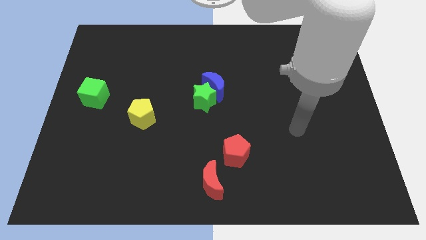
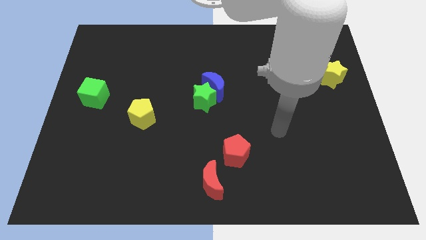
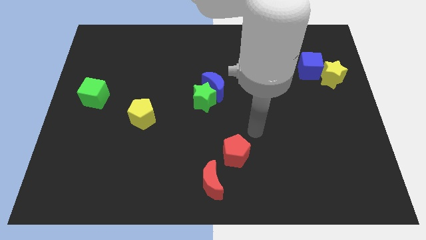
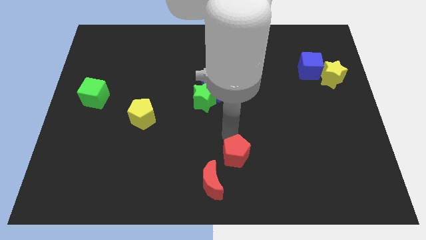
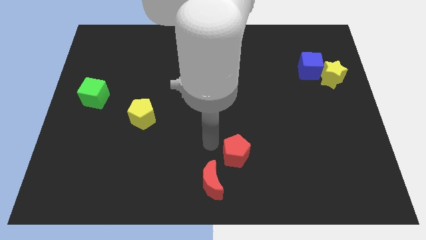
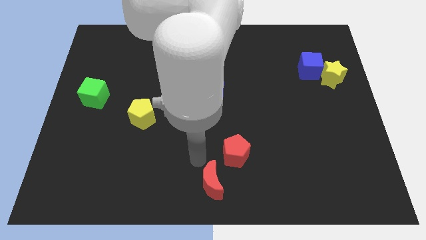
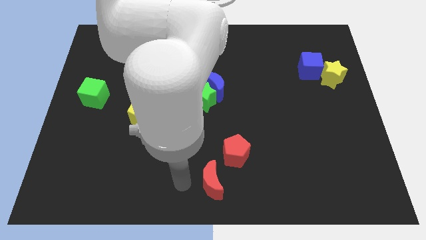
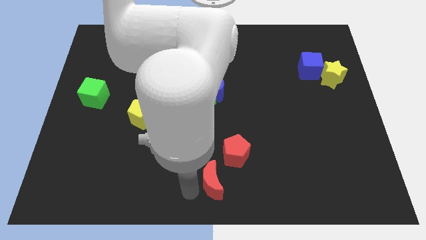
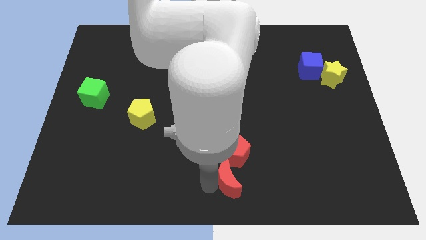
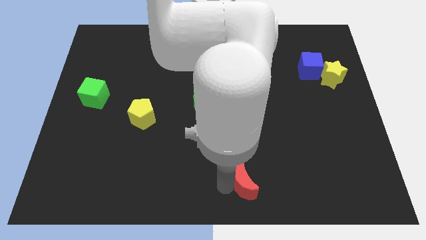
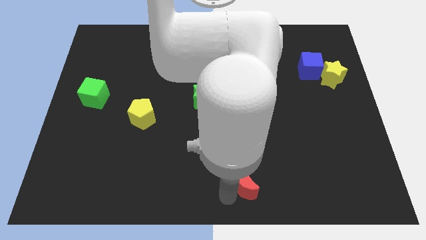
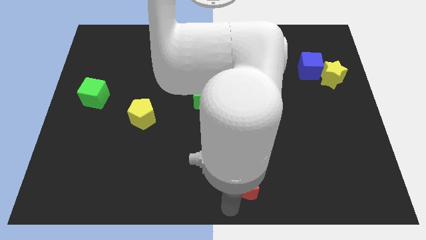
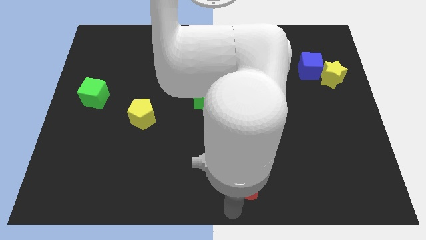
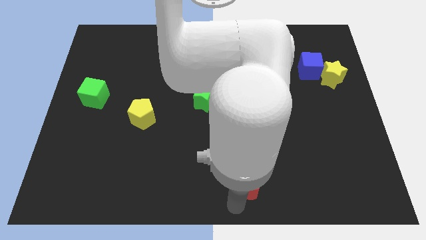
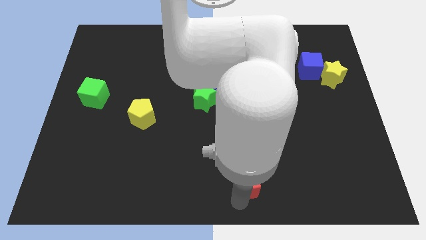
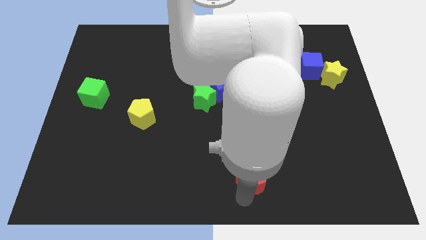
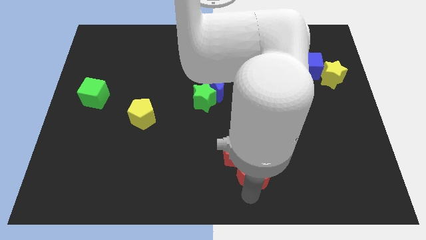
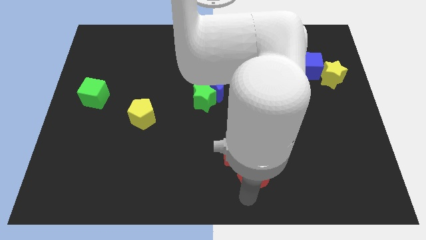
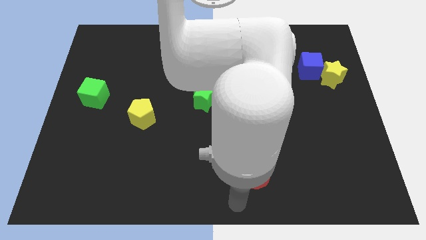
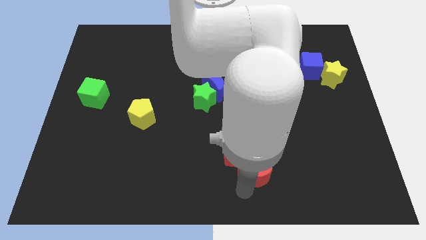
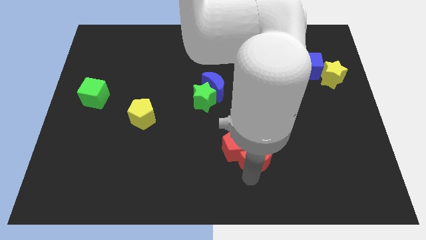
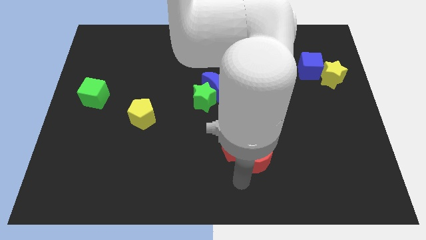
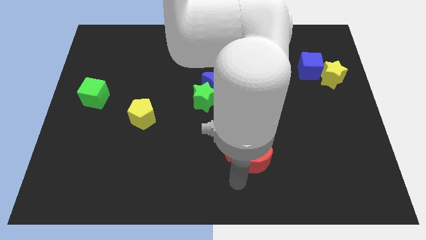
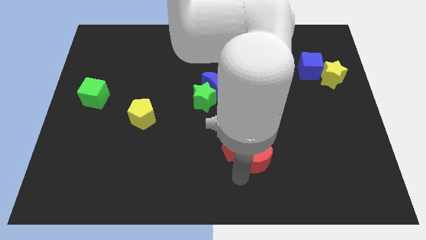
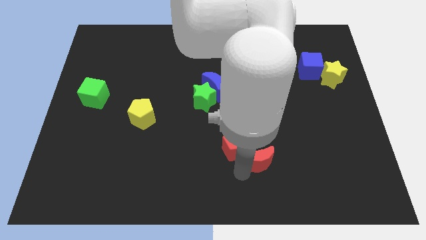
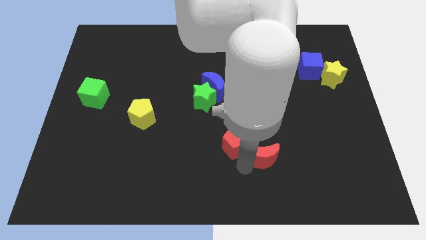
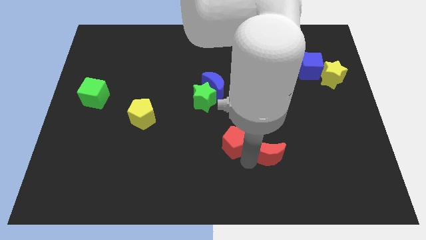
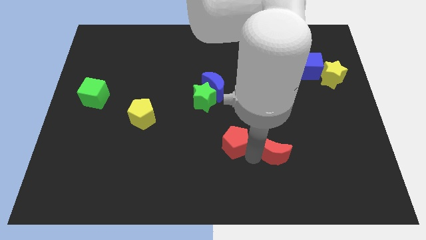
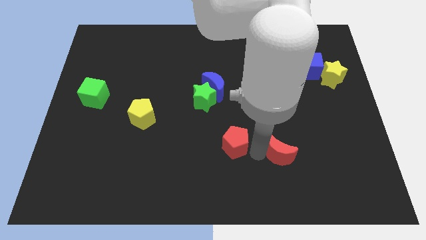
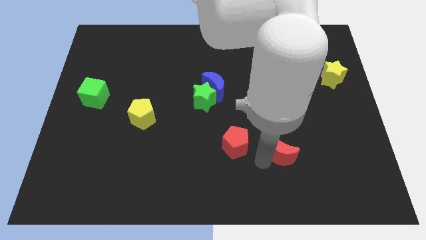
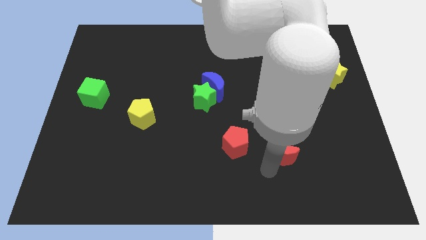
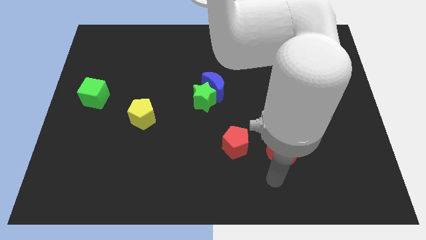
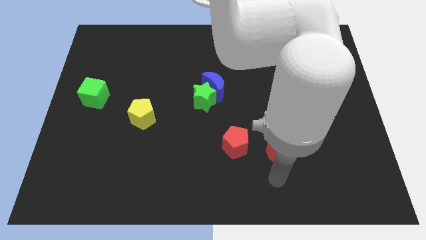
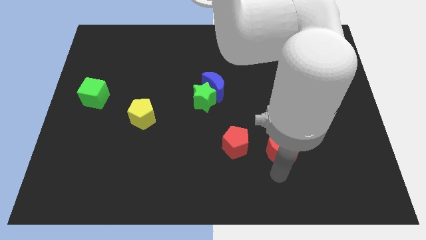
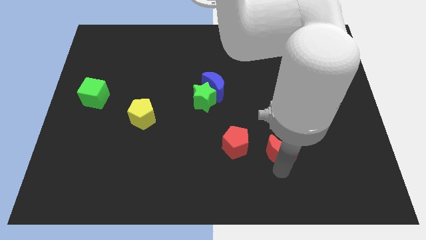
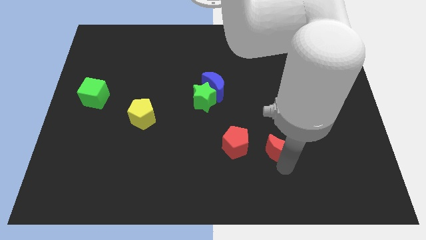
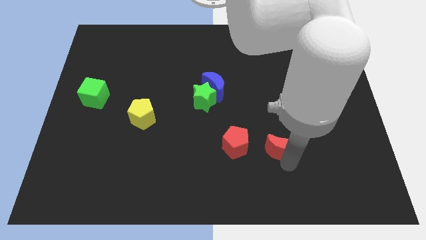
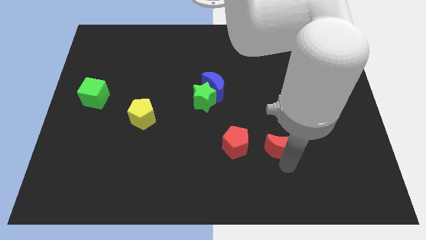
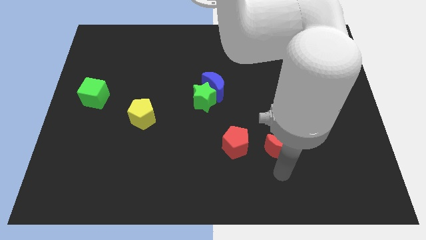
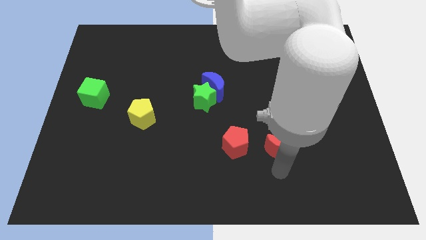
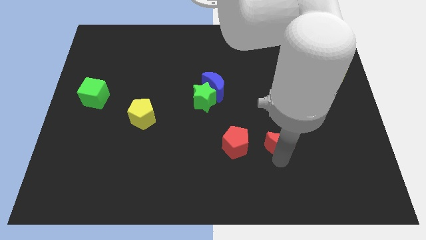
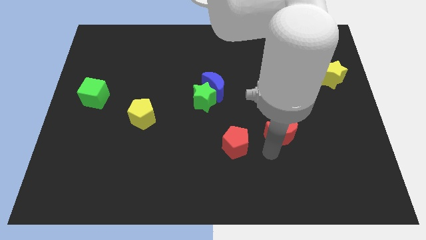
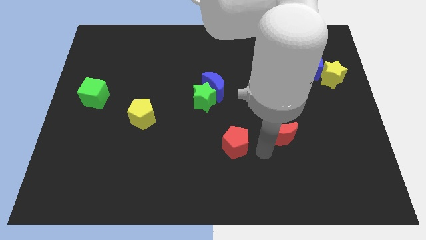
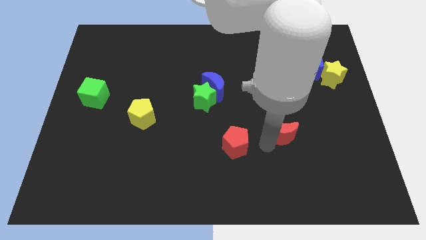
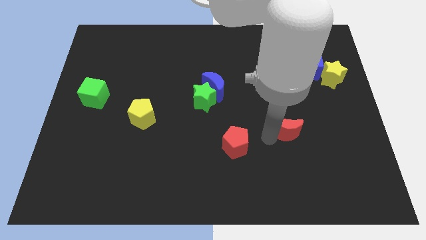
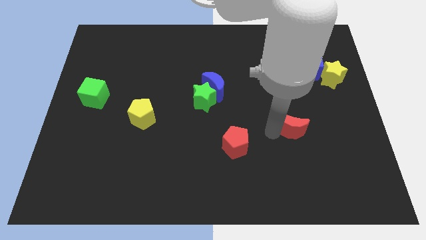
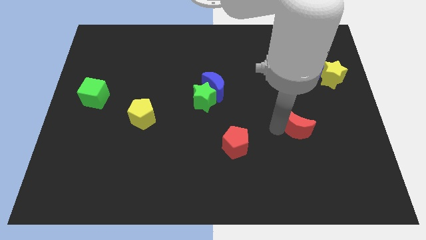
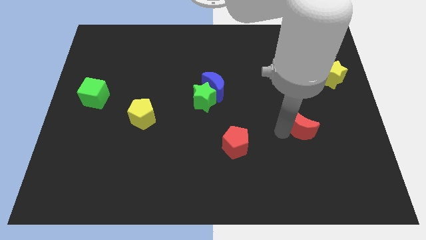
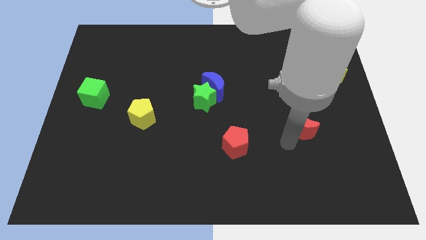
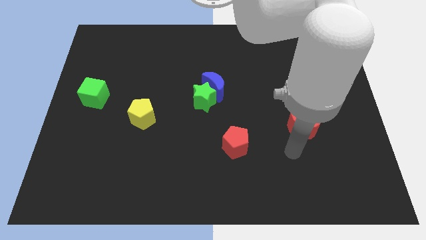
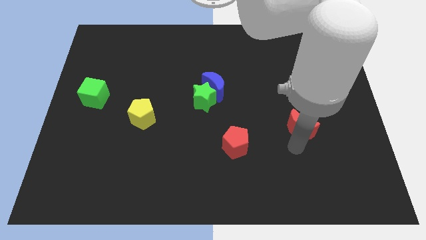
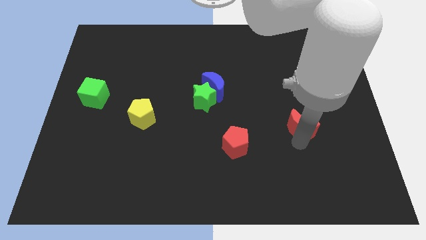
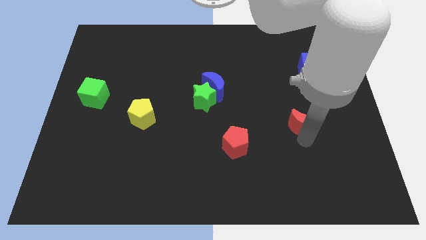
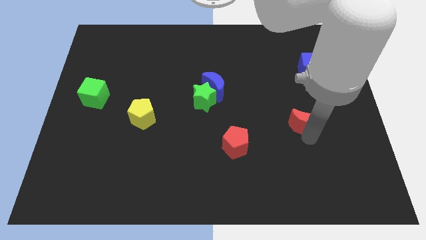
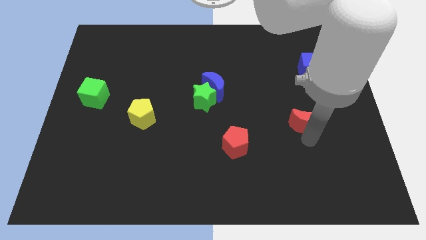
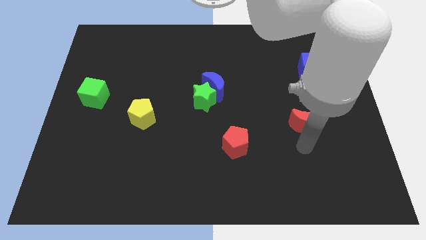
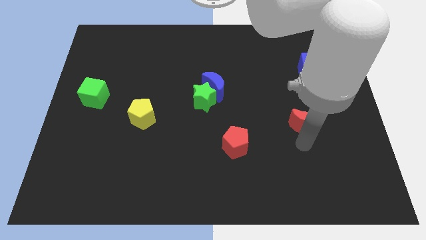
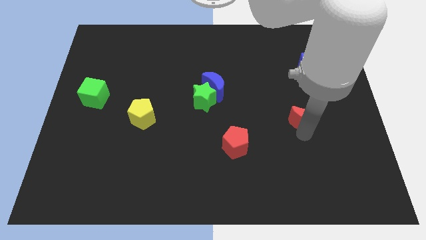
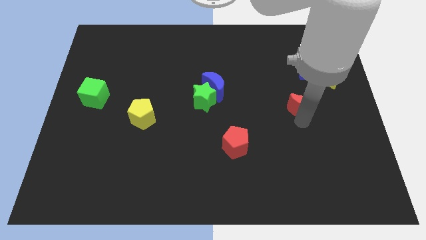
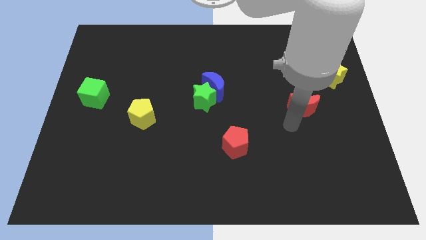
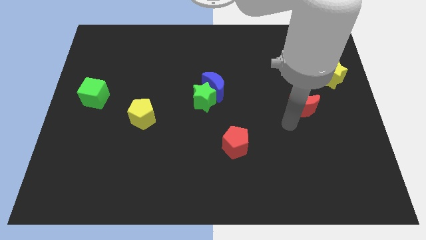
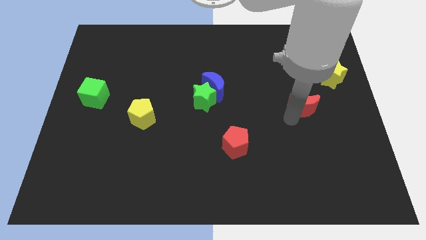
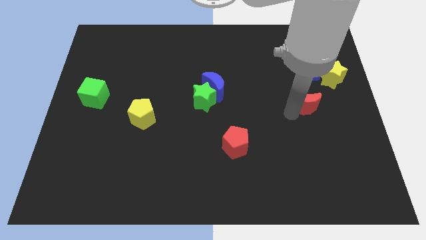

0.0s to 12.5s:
slide the red moon diagonally down and to the left of the yellow star
